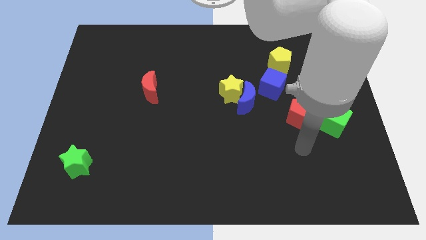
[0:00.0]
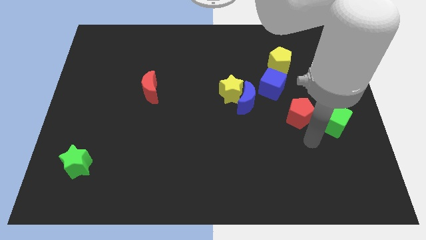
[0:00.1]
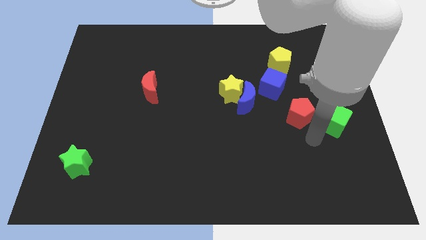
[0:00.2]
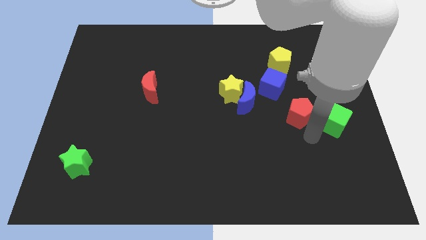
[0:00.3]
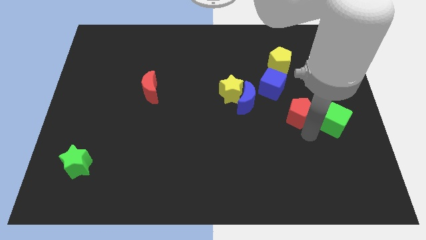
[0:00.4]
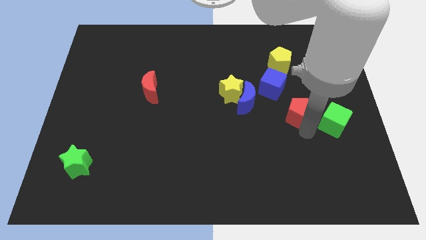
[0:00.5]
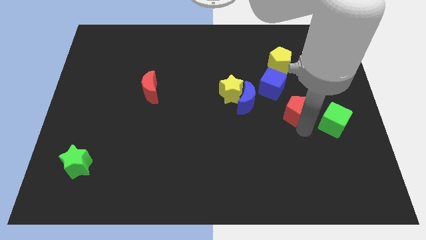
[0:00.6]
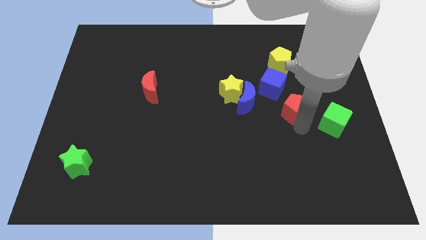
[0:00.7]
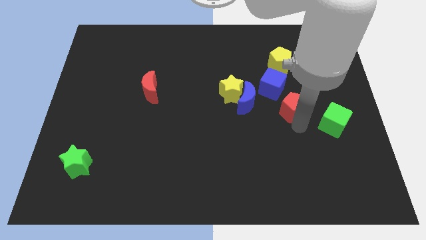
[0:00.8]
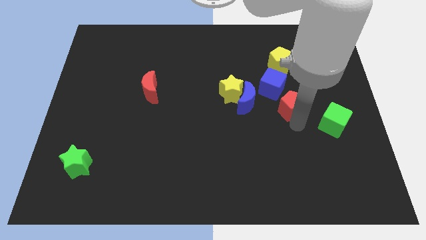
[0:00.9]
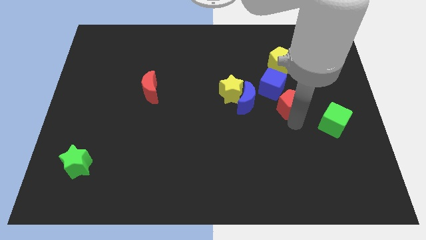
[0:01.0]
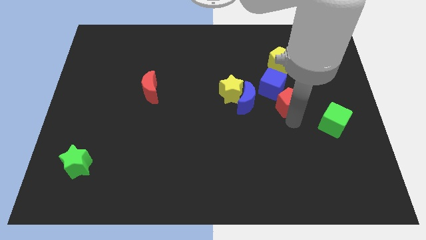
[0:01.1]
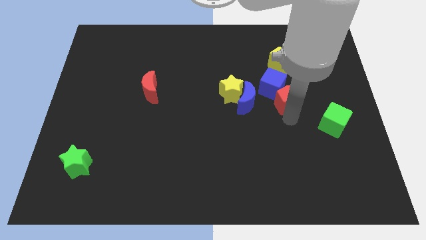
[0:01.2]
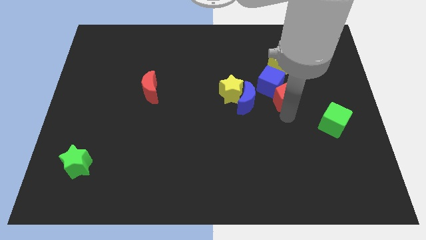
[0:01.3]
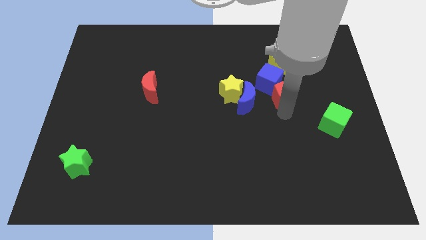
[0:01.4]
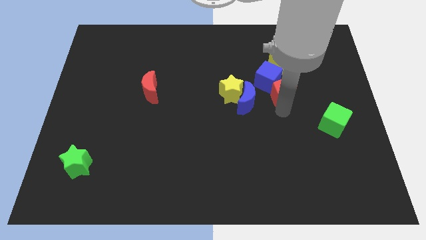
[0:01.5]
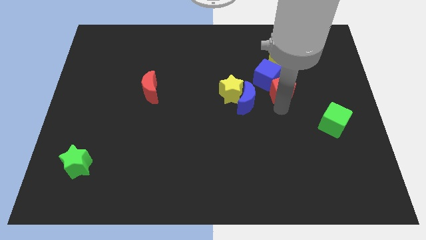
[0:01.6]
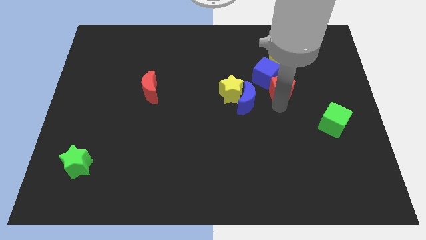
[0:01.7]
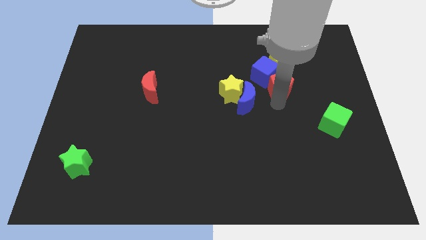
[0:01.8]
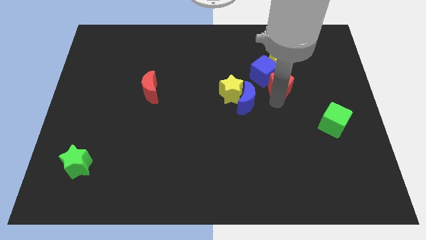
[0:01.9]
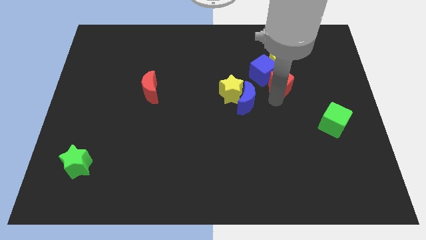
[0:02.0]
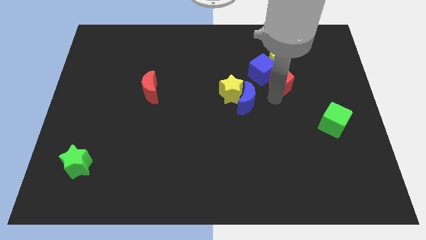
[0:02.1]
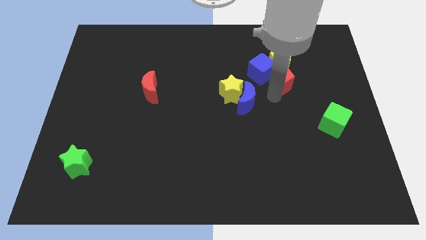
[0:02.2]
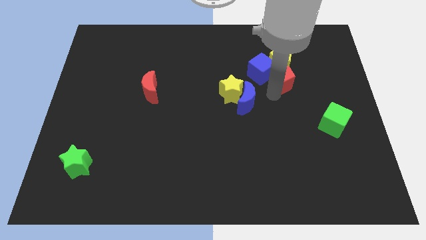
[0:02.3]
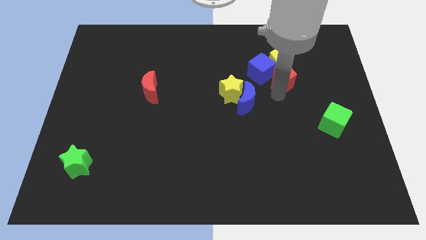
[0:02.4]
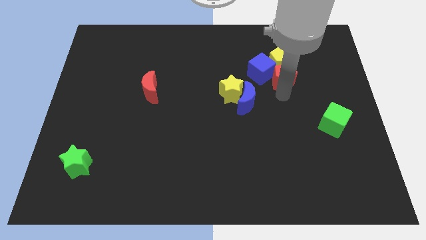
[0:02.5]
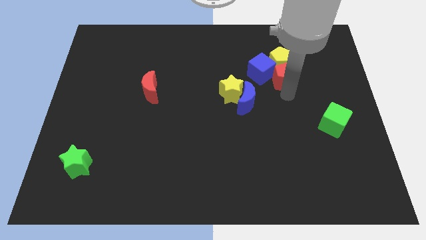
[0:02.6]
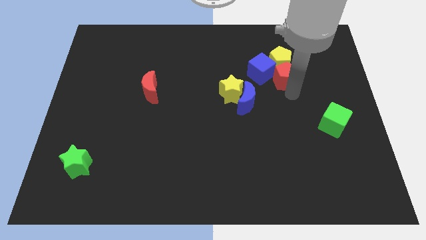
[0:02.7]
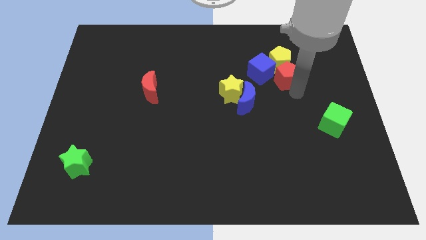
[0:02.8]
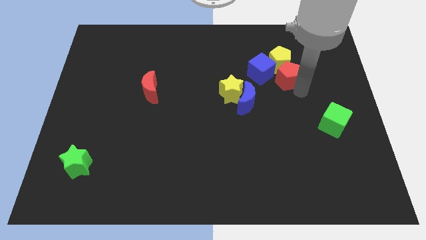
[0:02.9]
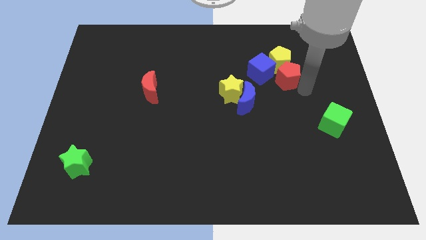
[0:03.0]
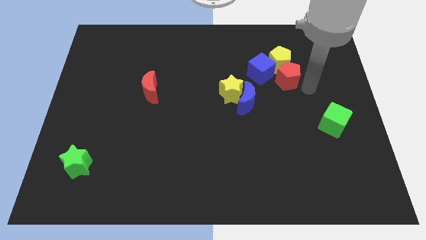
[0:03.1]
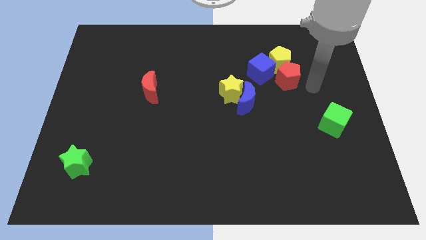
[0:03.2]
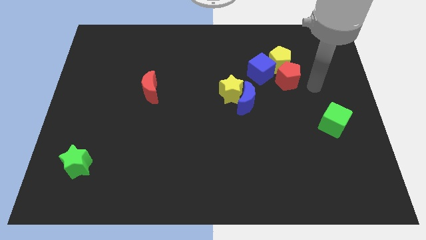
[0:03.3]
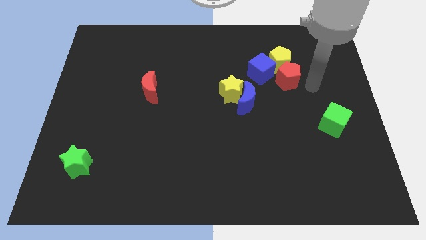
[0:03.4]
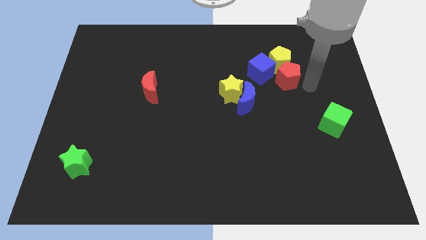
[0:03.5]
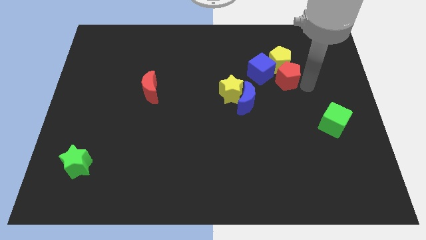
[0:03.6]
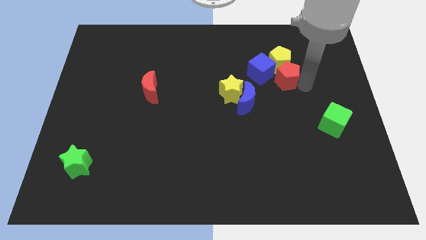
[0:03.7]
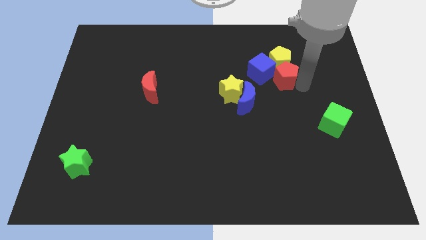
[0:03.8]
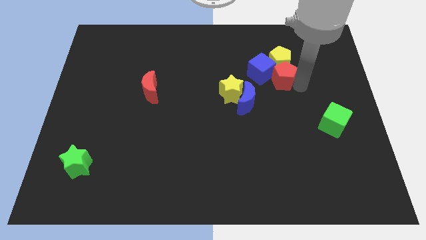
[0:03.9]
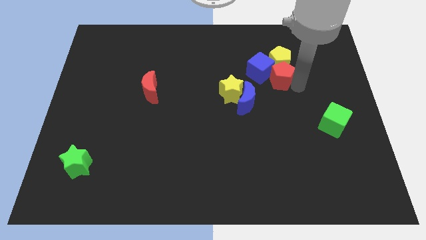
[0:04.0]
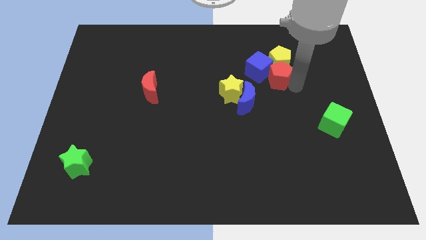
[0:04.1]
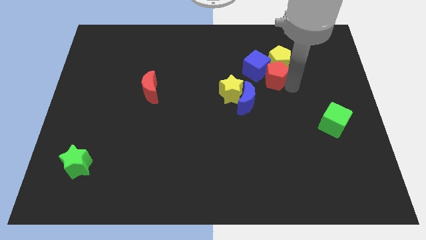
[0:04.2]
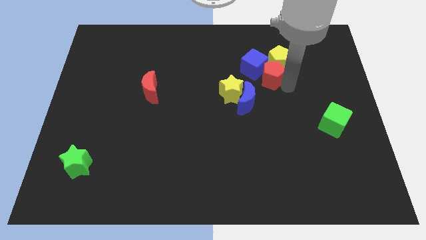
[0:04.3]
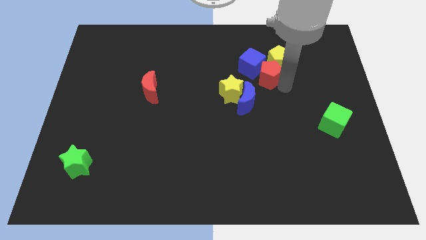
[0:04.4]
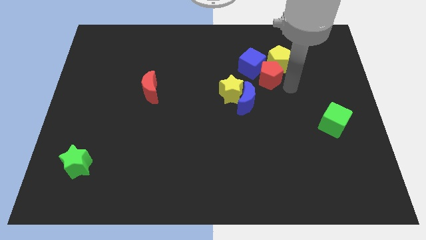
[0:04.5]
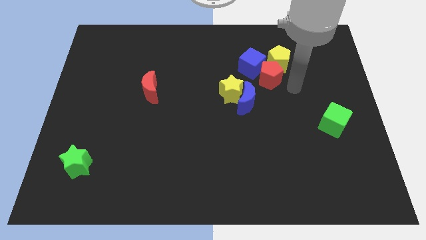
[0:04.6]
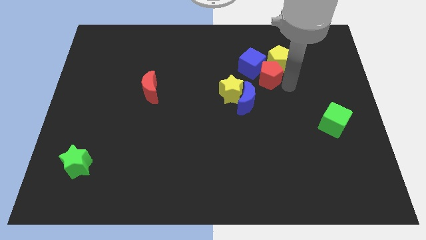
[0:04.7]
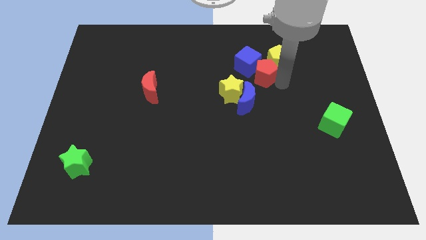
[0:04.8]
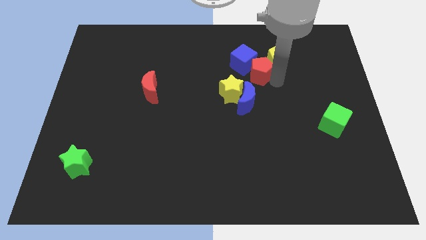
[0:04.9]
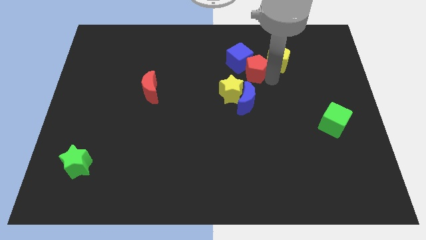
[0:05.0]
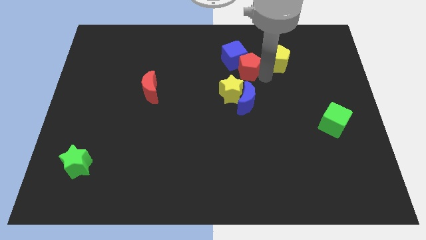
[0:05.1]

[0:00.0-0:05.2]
put the red pentagon to the top of the yellow star

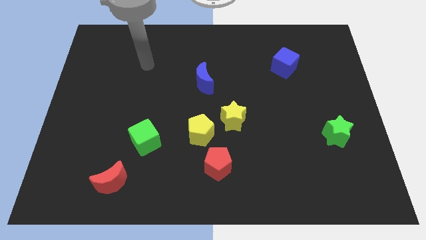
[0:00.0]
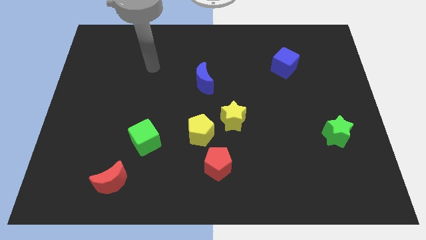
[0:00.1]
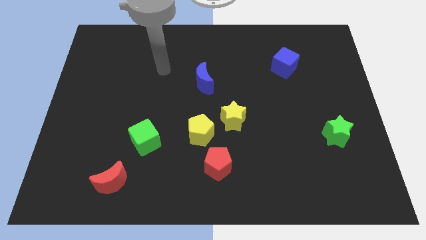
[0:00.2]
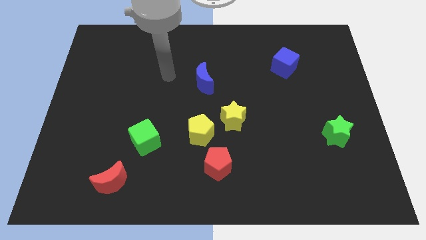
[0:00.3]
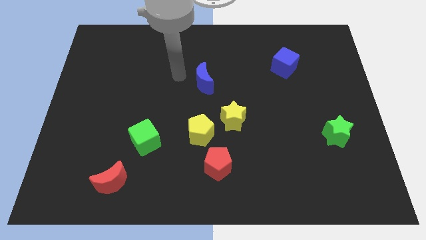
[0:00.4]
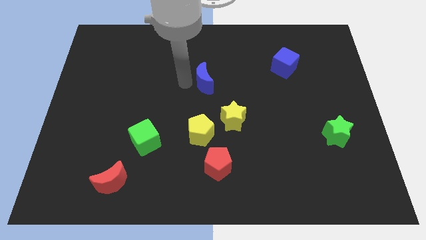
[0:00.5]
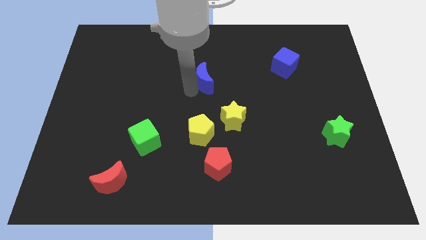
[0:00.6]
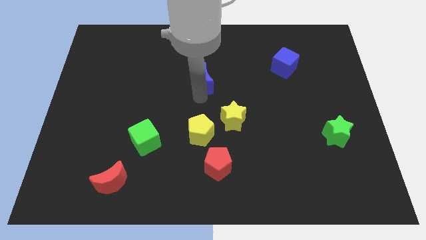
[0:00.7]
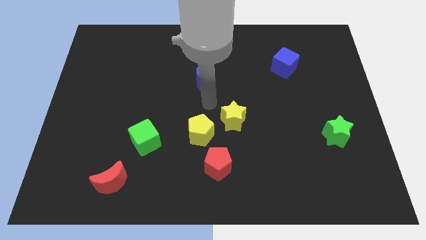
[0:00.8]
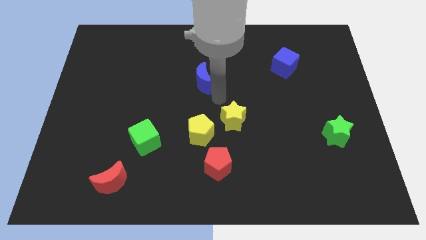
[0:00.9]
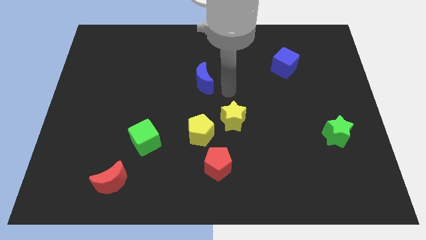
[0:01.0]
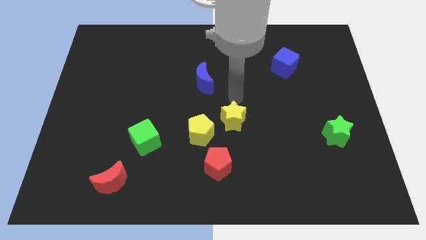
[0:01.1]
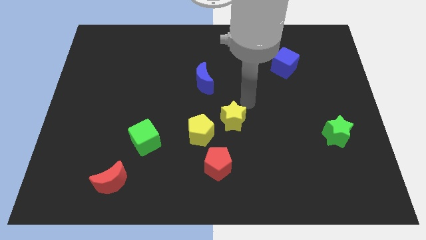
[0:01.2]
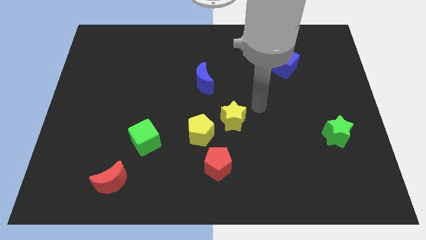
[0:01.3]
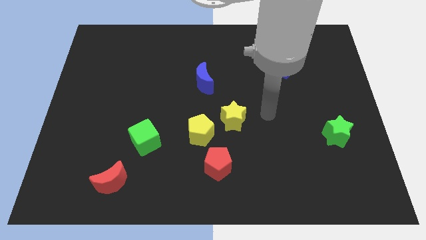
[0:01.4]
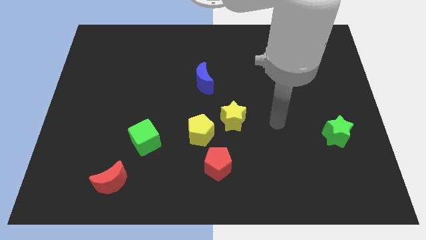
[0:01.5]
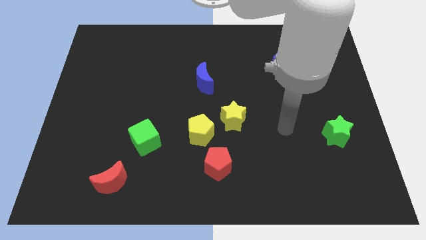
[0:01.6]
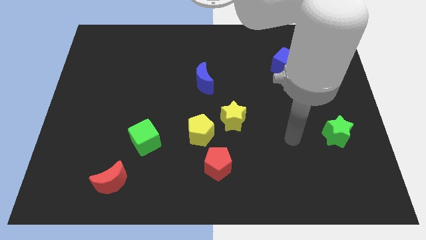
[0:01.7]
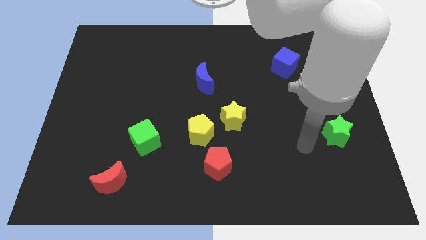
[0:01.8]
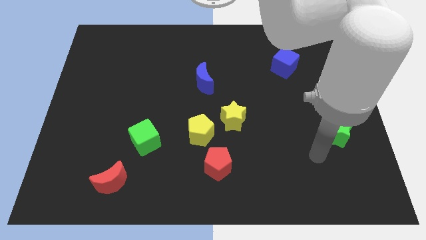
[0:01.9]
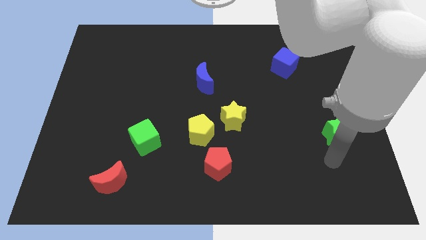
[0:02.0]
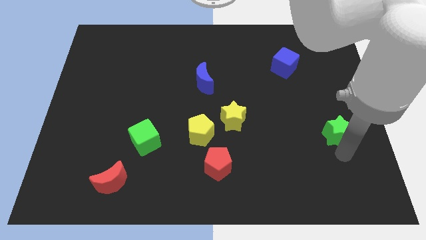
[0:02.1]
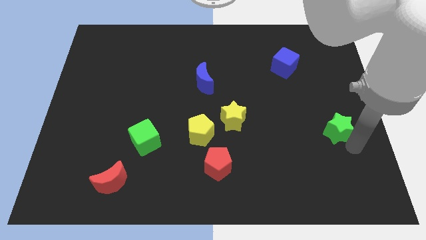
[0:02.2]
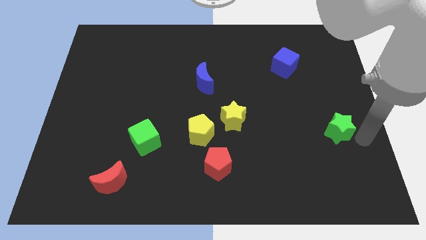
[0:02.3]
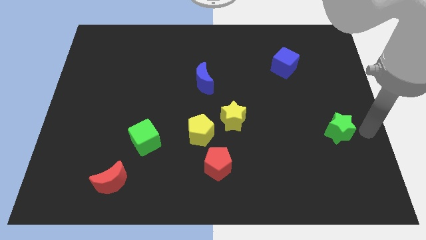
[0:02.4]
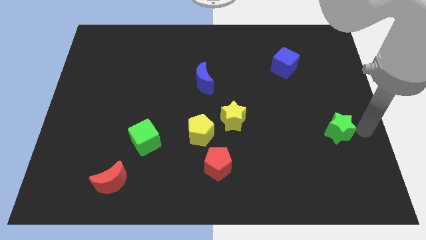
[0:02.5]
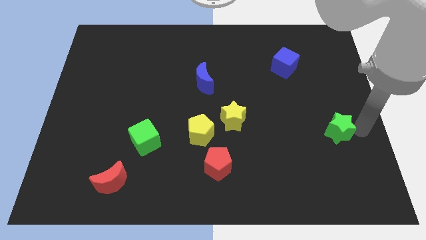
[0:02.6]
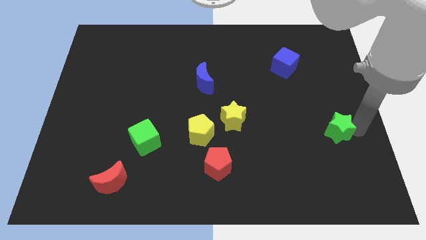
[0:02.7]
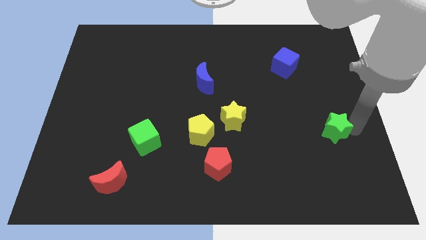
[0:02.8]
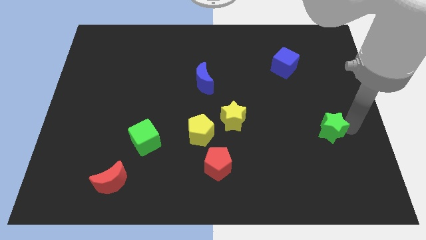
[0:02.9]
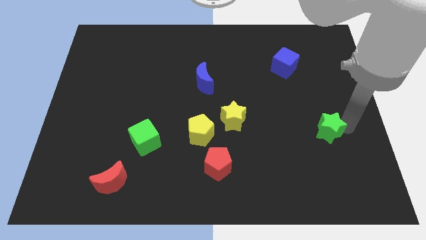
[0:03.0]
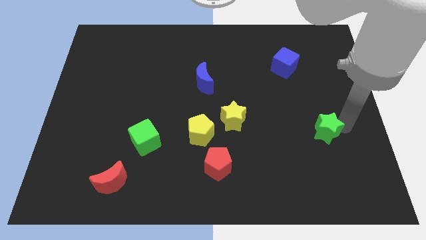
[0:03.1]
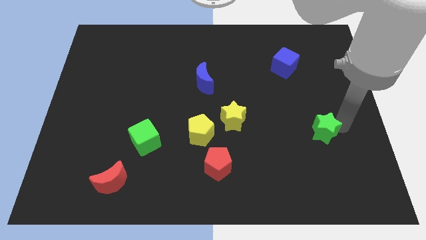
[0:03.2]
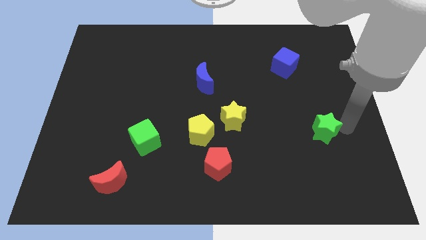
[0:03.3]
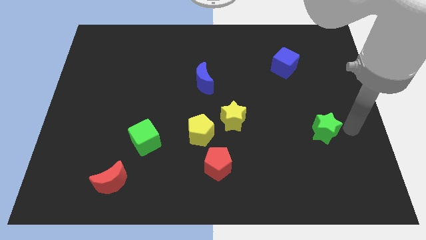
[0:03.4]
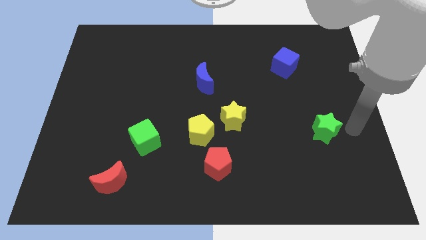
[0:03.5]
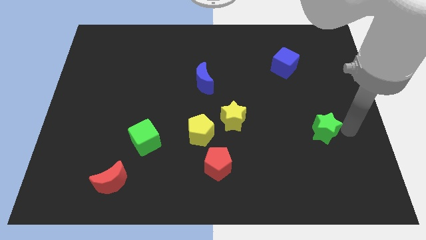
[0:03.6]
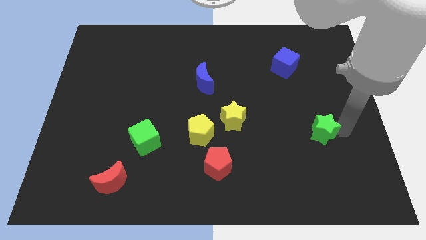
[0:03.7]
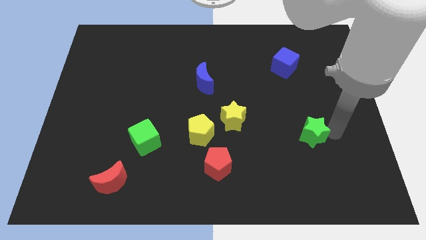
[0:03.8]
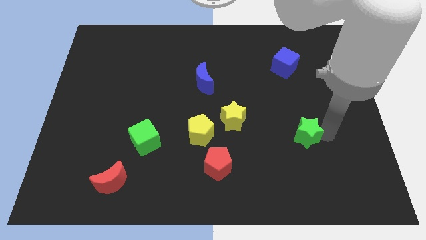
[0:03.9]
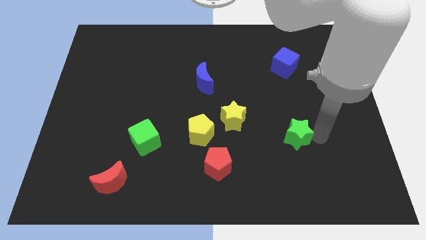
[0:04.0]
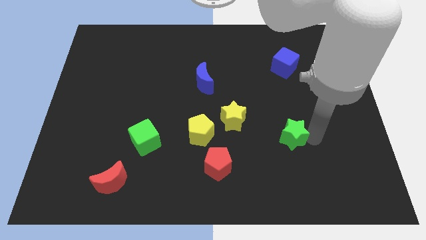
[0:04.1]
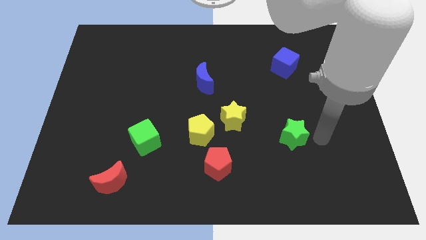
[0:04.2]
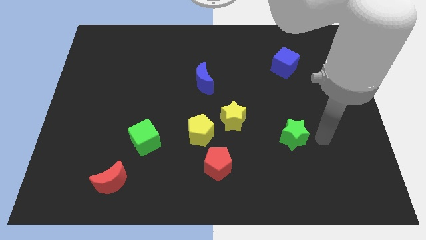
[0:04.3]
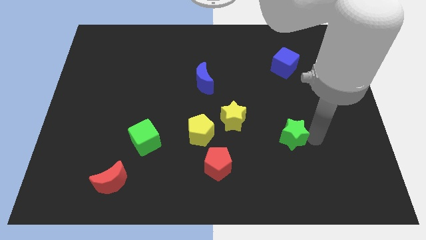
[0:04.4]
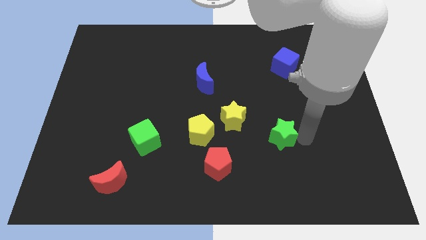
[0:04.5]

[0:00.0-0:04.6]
push the green star diagonally down and to the right of the yellow star
